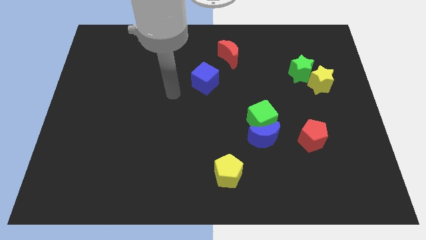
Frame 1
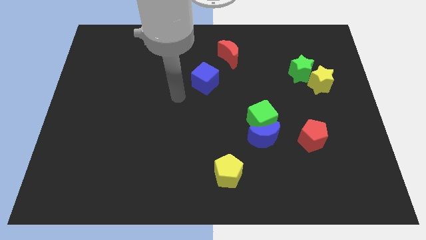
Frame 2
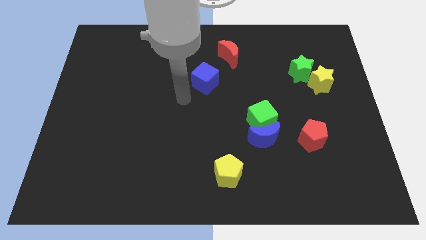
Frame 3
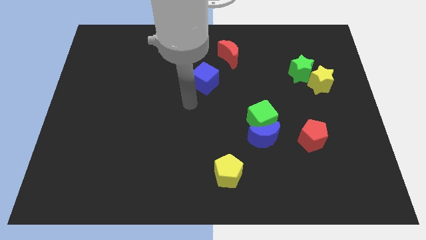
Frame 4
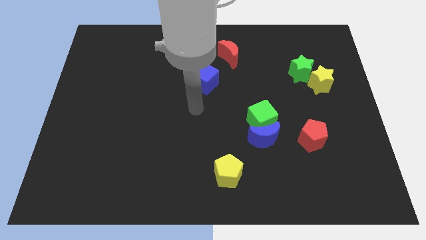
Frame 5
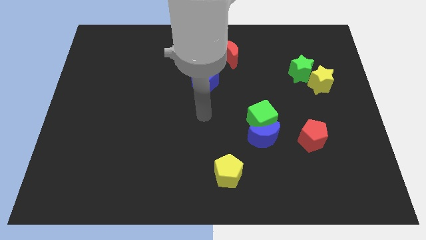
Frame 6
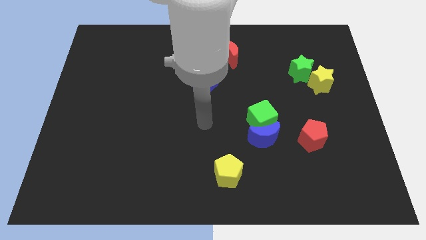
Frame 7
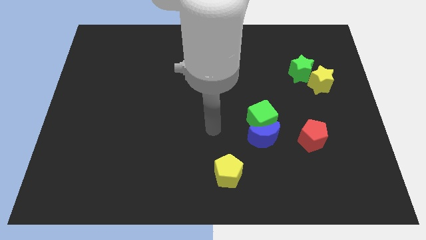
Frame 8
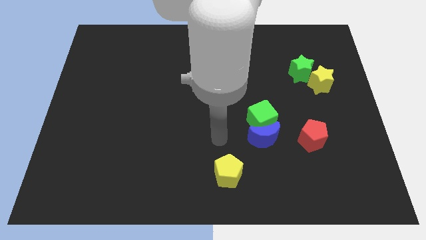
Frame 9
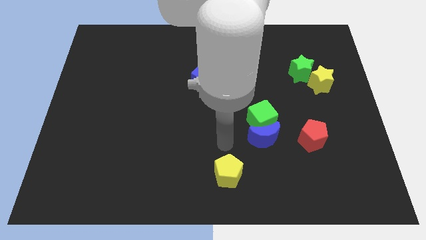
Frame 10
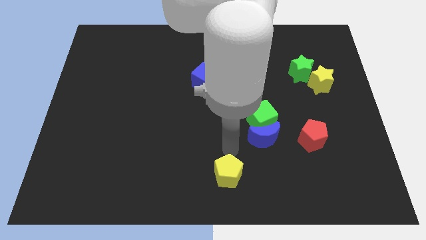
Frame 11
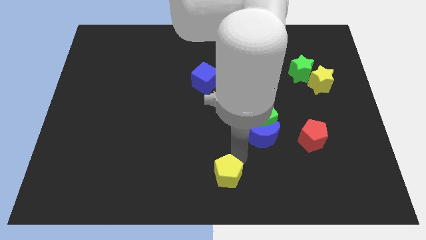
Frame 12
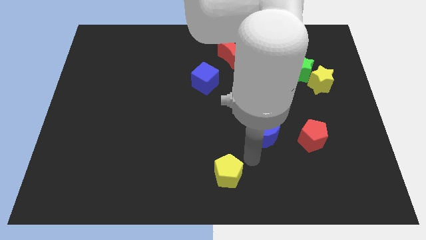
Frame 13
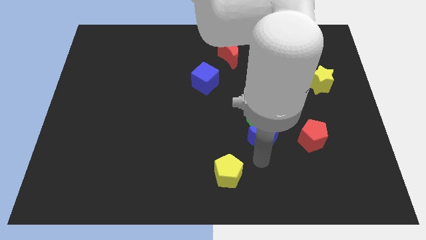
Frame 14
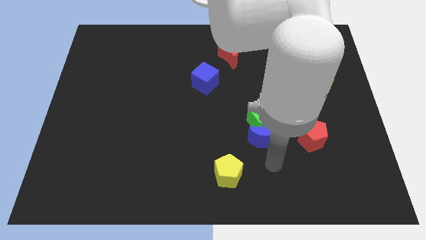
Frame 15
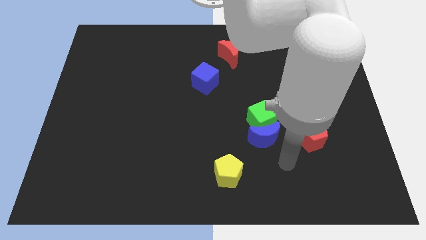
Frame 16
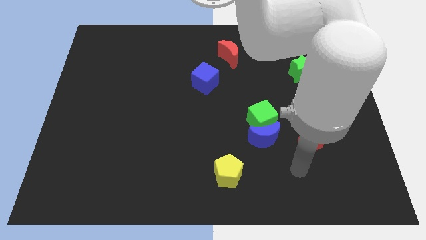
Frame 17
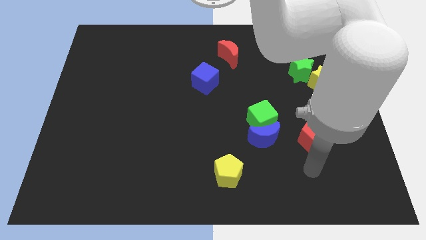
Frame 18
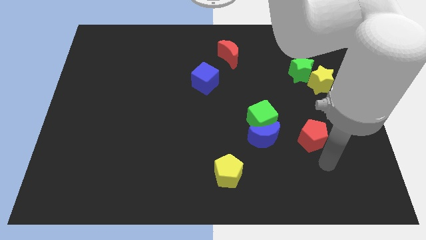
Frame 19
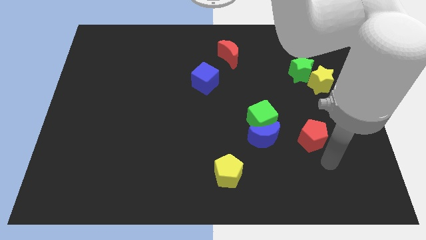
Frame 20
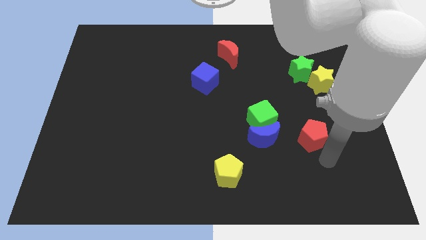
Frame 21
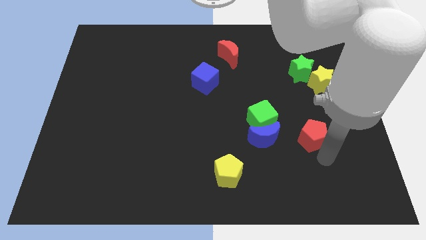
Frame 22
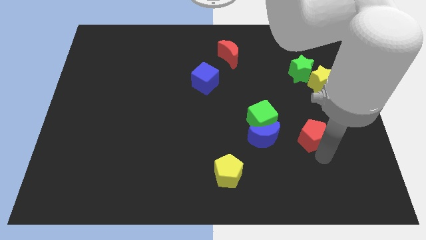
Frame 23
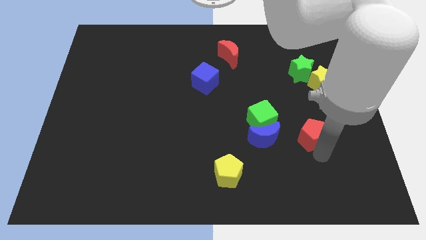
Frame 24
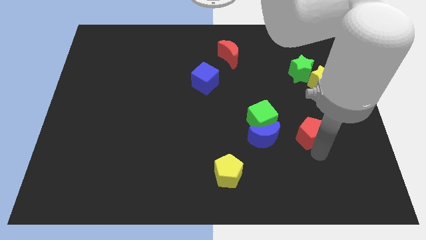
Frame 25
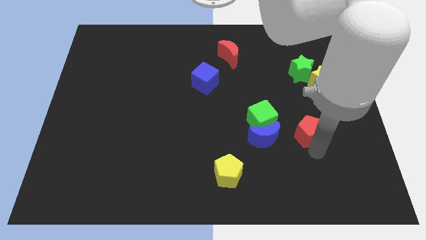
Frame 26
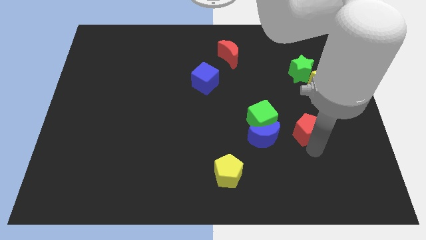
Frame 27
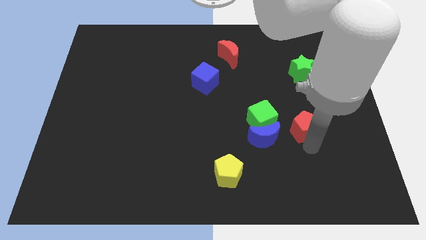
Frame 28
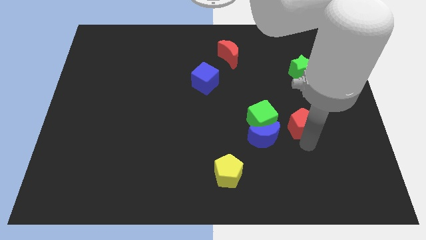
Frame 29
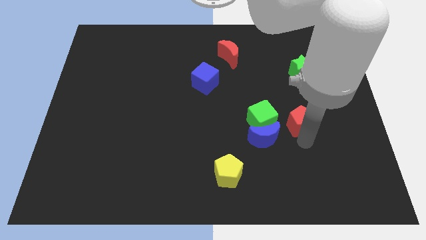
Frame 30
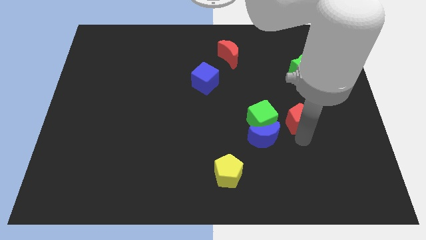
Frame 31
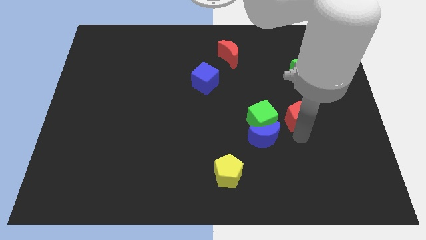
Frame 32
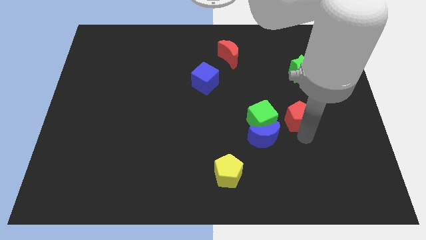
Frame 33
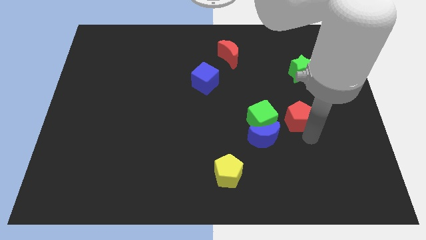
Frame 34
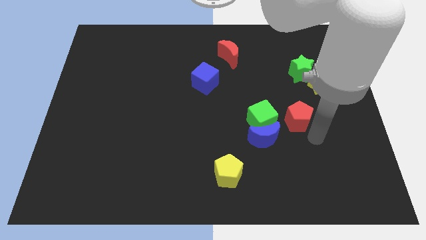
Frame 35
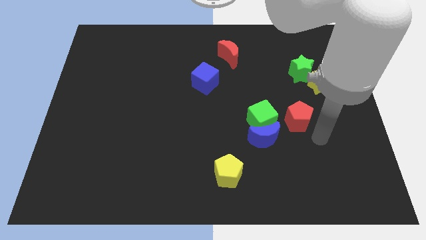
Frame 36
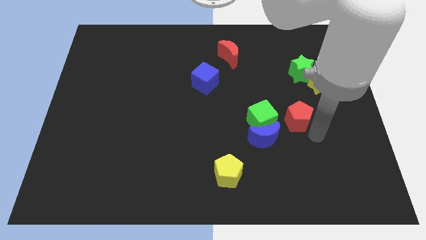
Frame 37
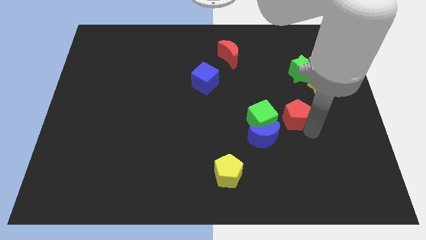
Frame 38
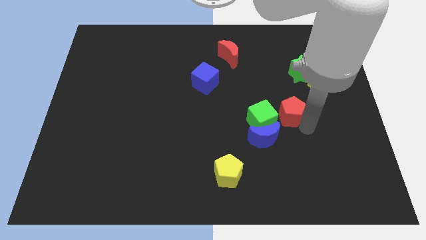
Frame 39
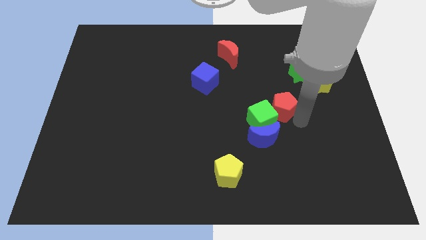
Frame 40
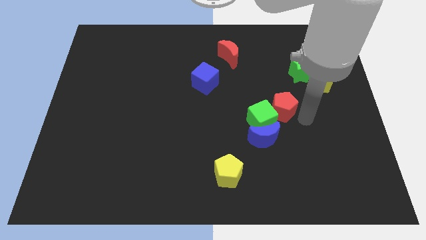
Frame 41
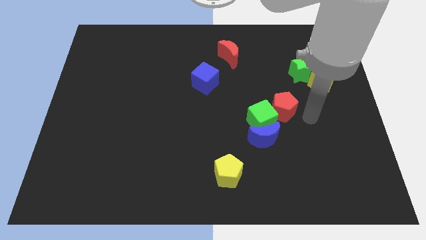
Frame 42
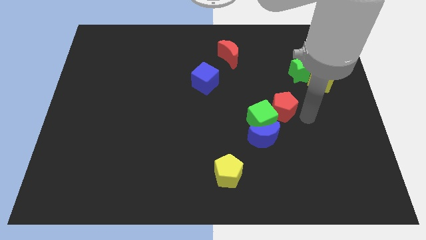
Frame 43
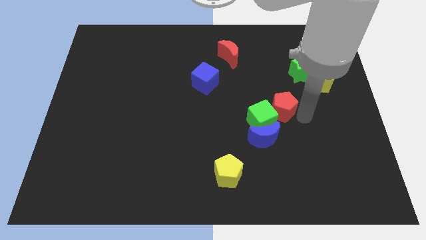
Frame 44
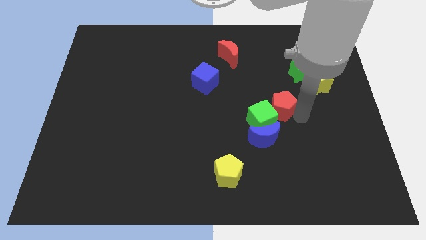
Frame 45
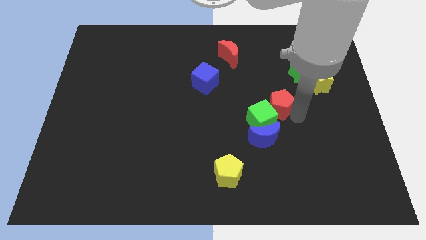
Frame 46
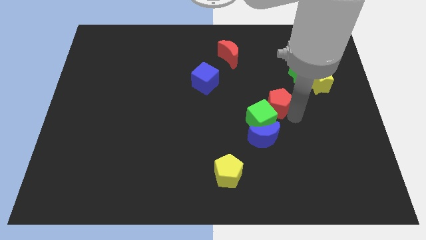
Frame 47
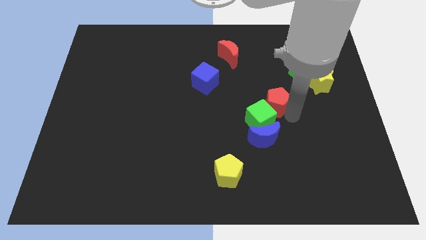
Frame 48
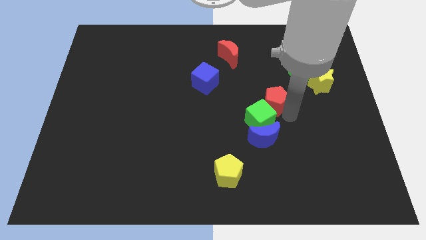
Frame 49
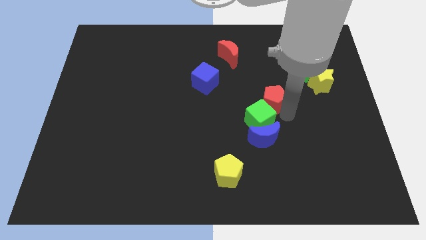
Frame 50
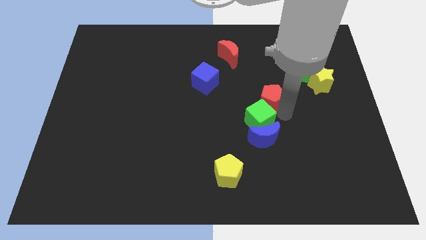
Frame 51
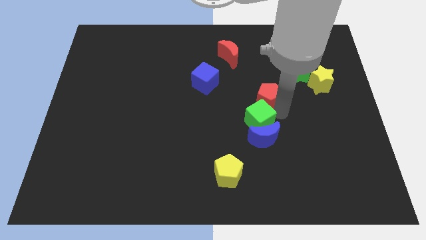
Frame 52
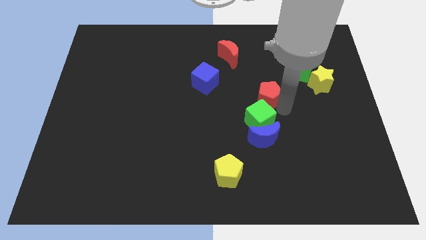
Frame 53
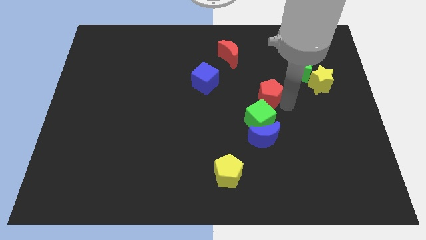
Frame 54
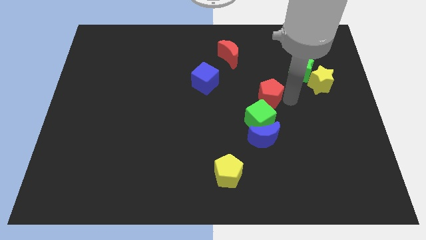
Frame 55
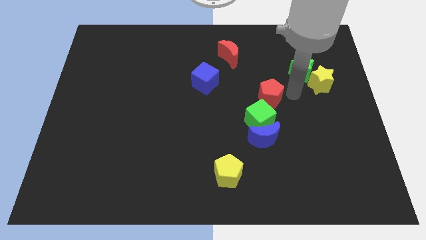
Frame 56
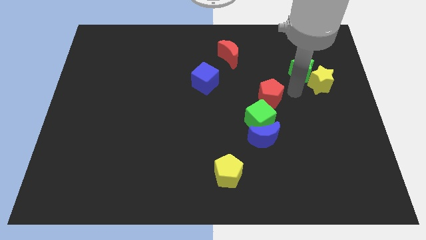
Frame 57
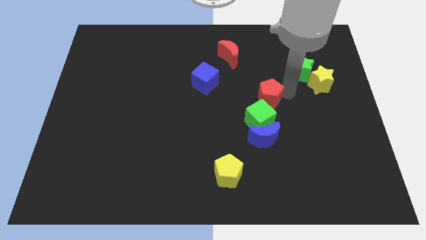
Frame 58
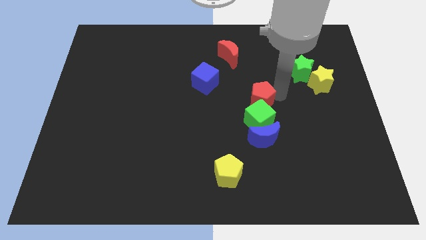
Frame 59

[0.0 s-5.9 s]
push the red pentagon to the middle of the board

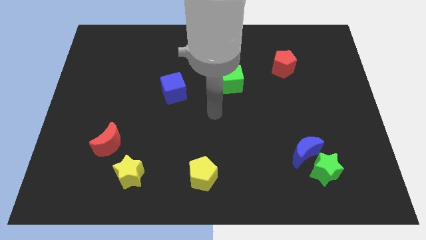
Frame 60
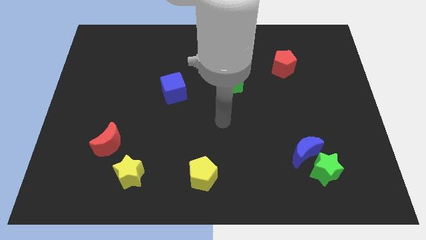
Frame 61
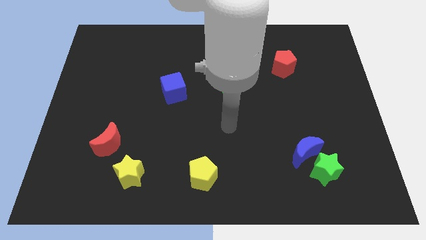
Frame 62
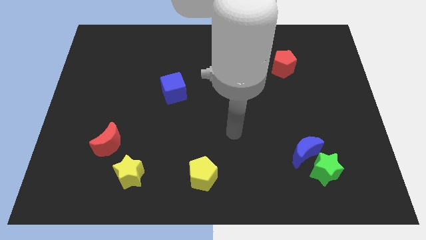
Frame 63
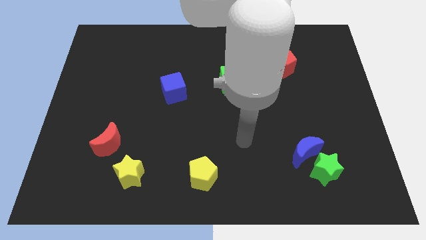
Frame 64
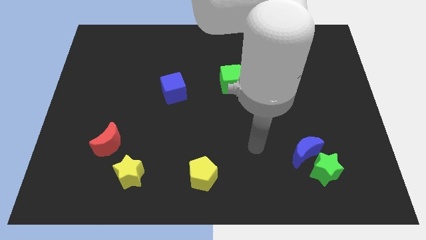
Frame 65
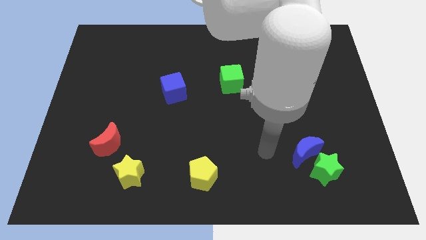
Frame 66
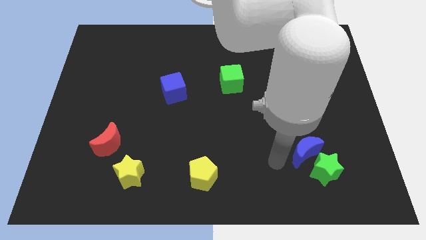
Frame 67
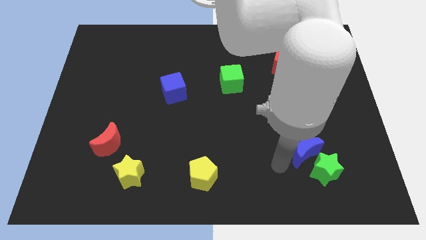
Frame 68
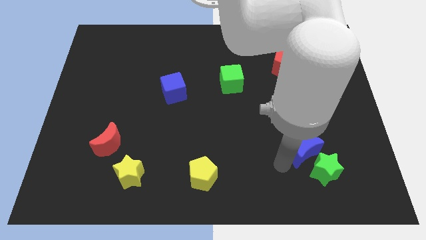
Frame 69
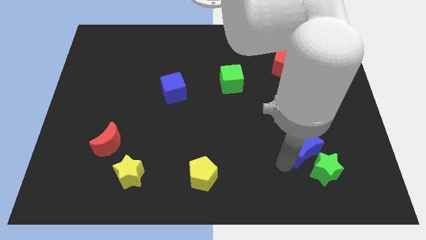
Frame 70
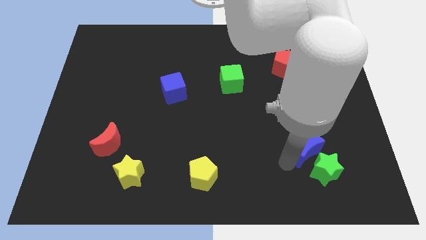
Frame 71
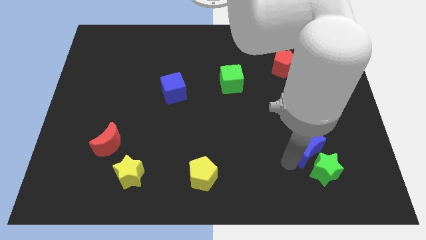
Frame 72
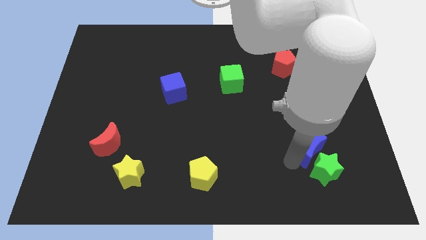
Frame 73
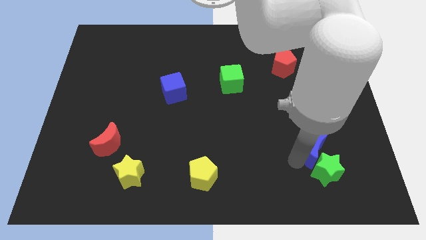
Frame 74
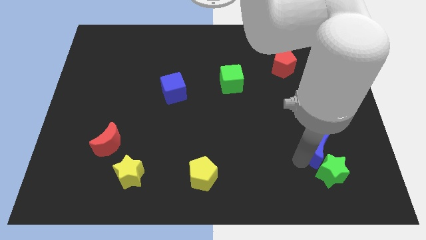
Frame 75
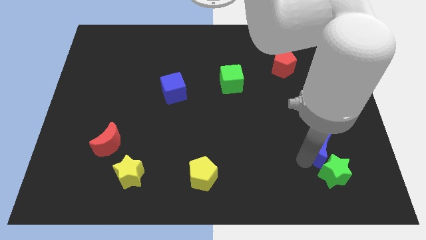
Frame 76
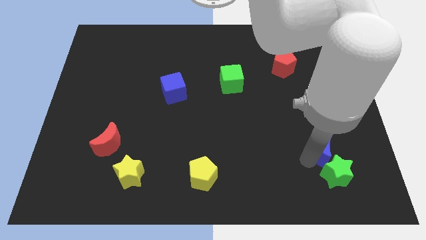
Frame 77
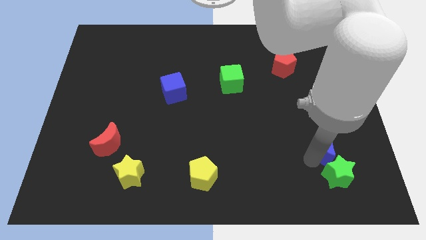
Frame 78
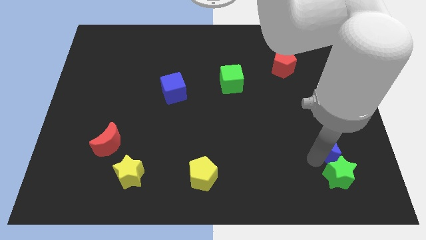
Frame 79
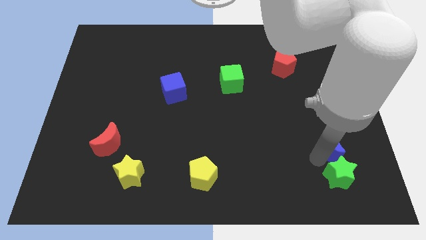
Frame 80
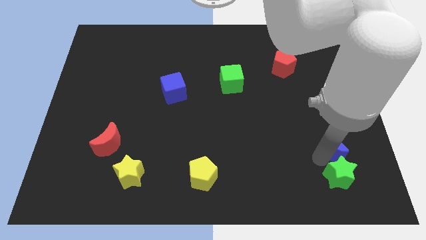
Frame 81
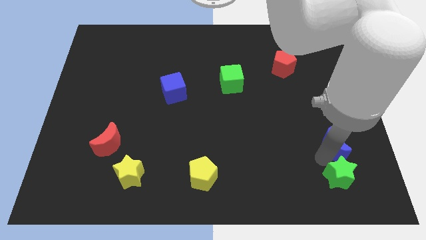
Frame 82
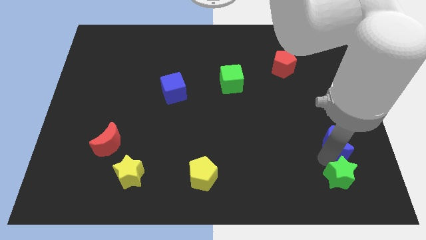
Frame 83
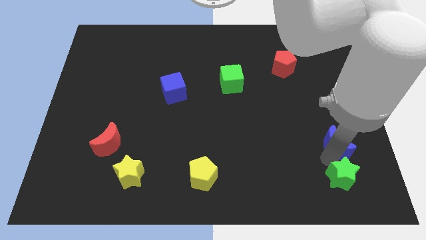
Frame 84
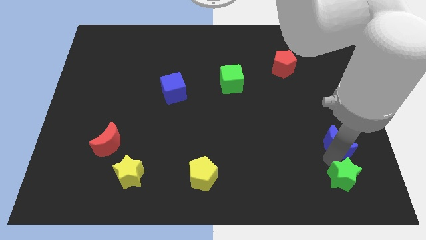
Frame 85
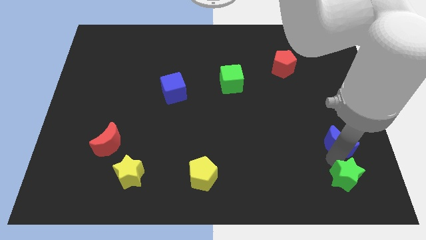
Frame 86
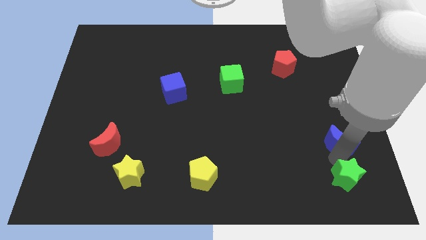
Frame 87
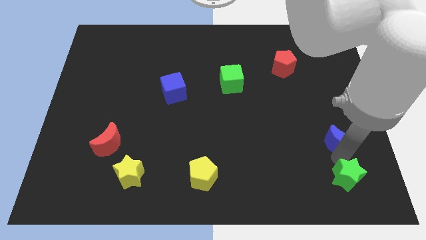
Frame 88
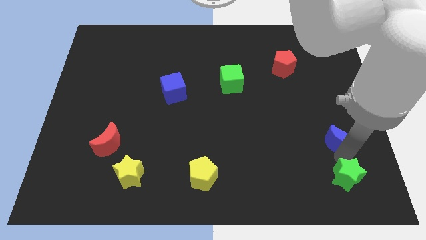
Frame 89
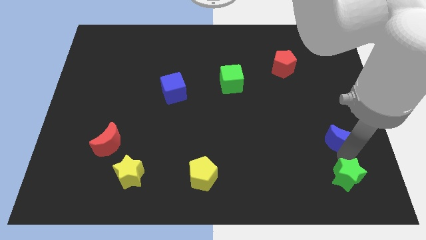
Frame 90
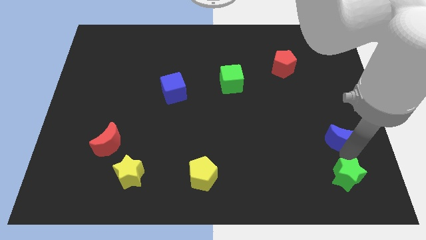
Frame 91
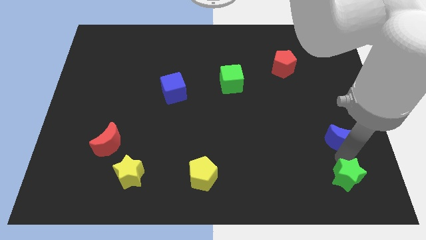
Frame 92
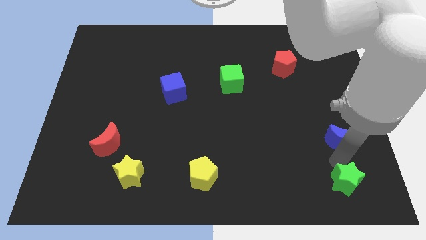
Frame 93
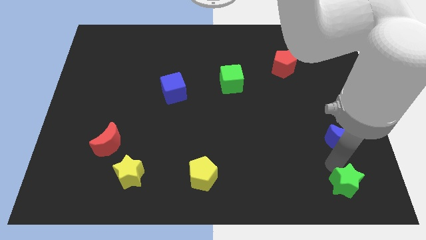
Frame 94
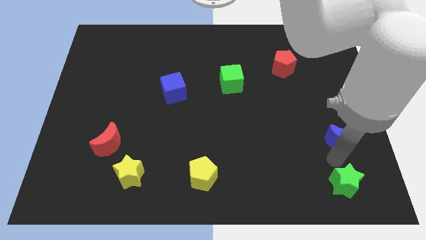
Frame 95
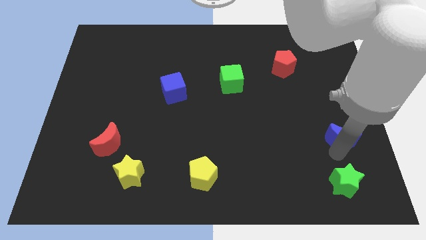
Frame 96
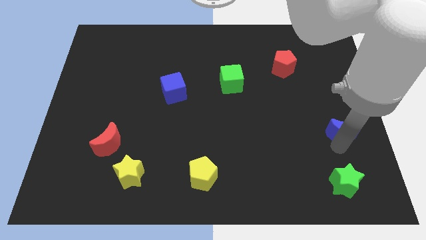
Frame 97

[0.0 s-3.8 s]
put the blue moon to the center right
